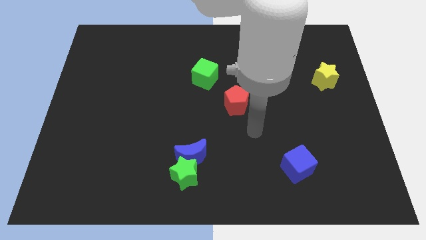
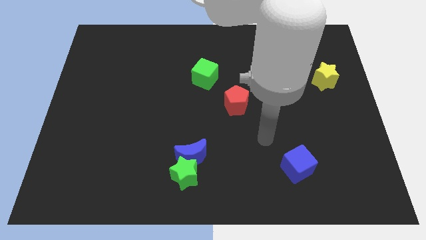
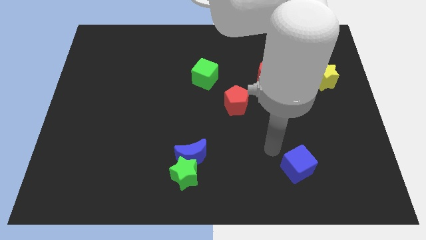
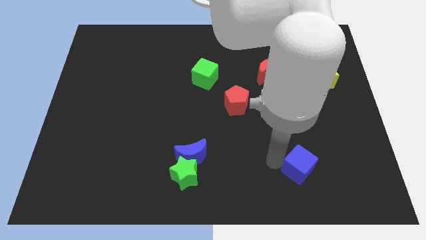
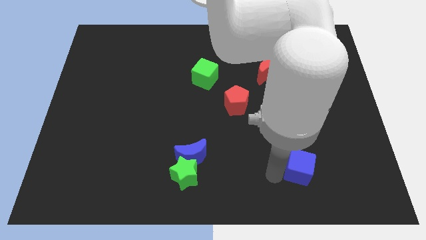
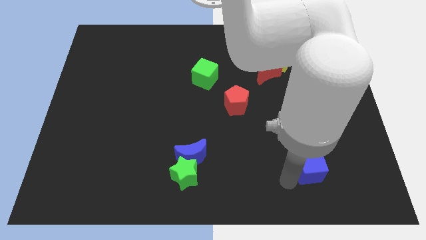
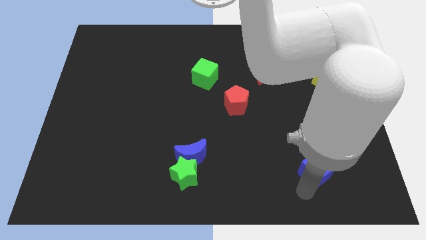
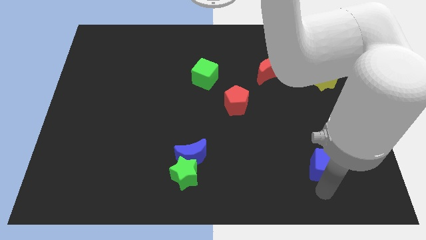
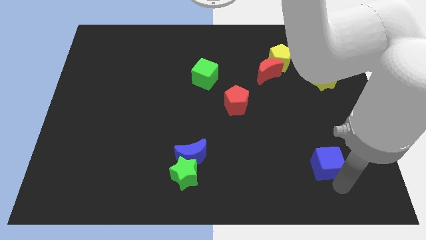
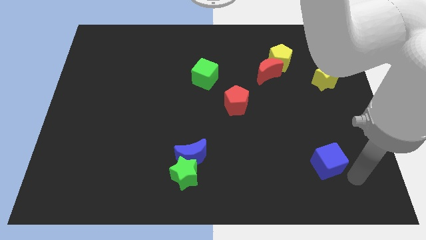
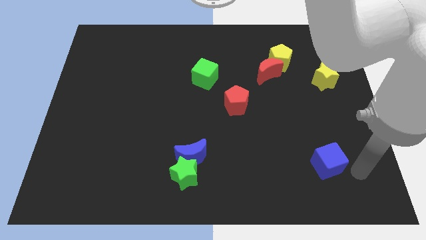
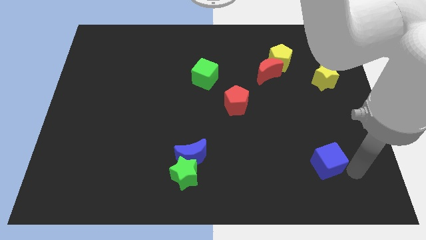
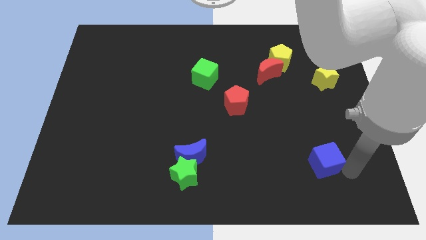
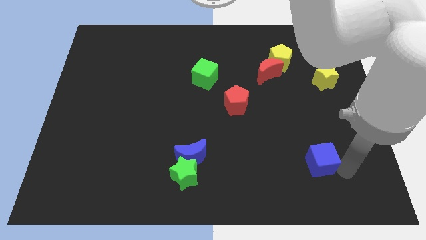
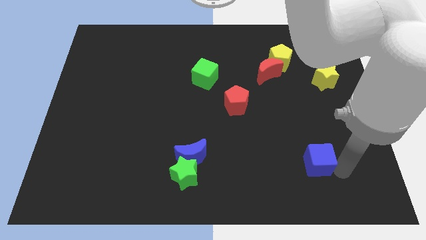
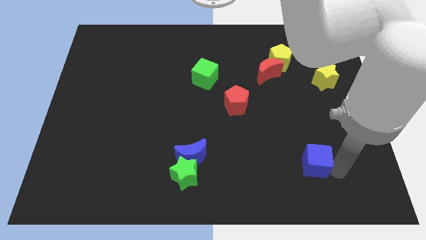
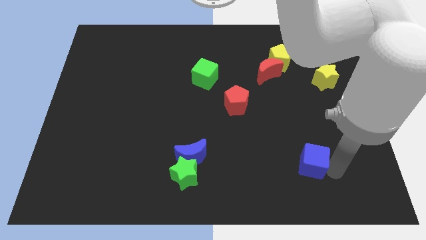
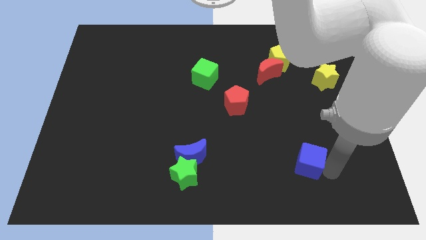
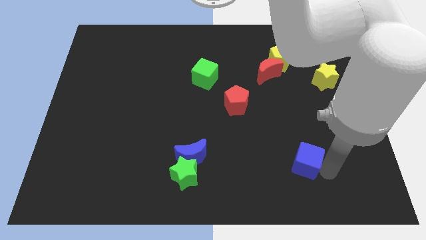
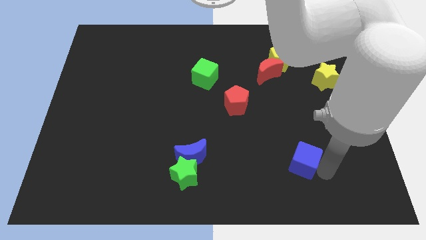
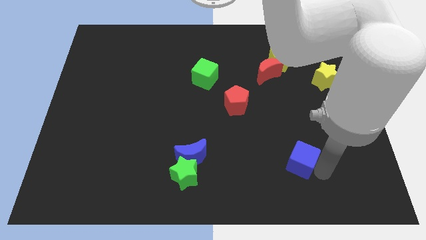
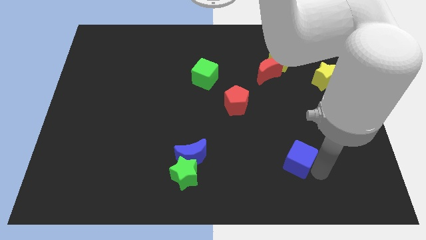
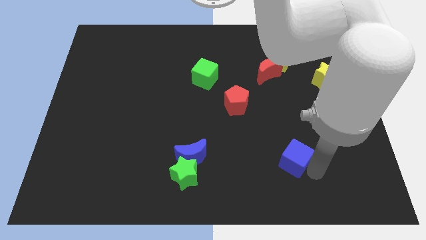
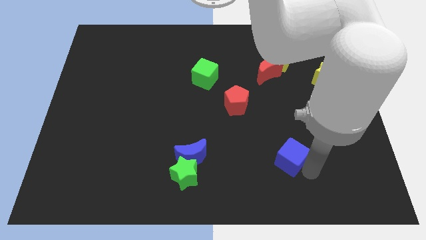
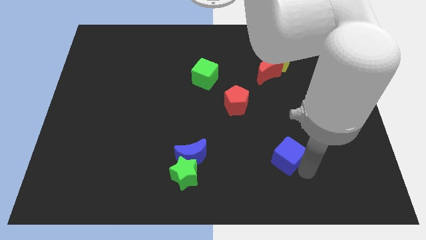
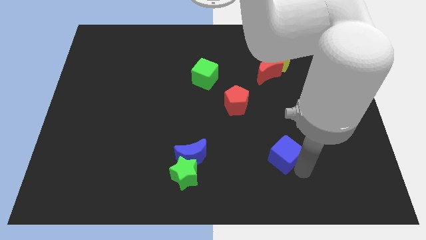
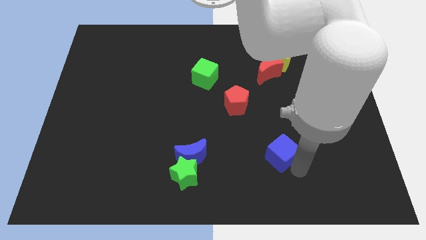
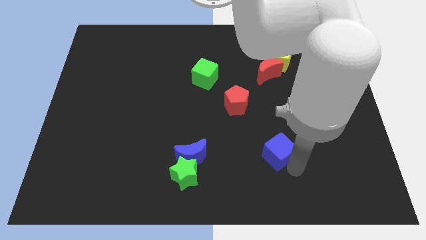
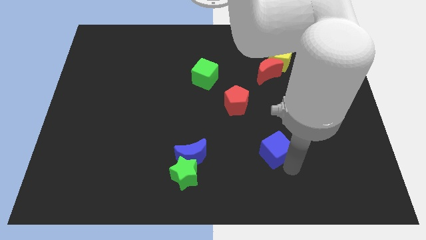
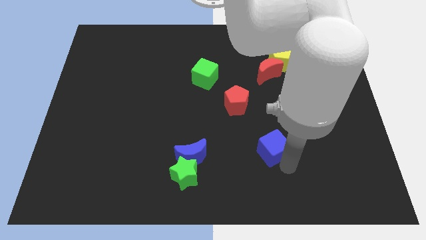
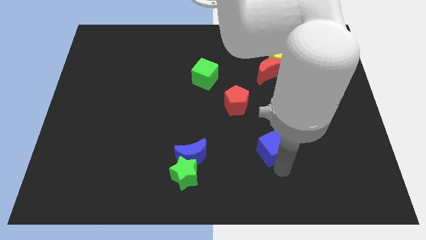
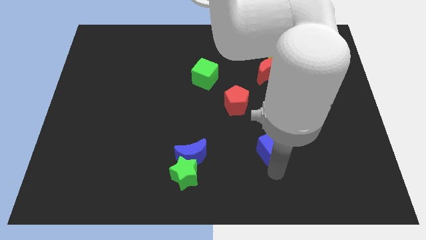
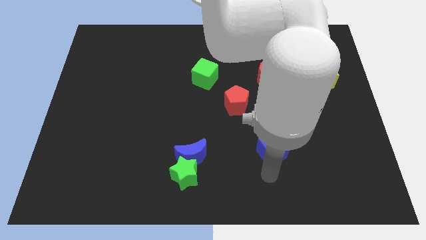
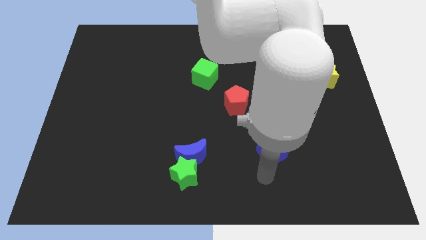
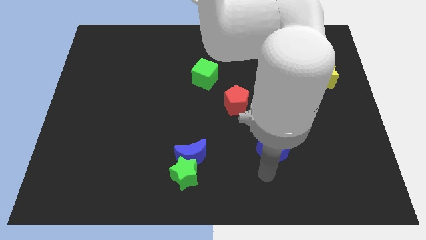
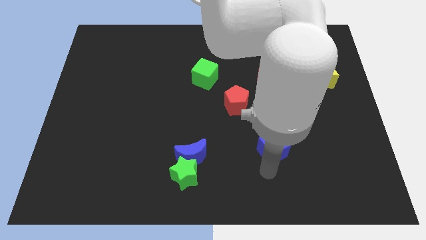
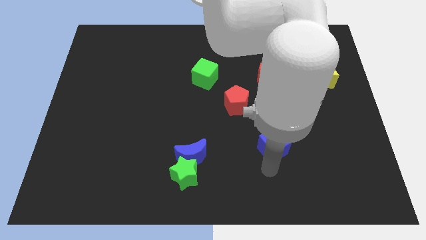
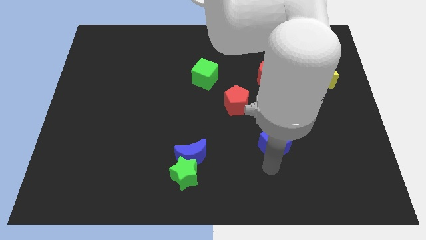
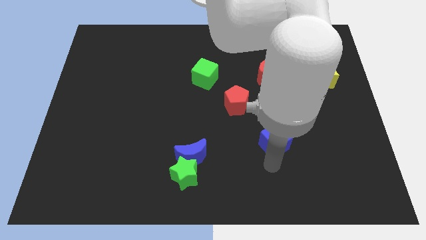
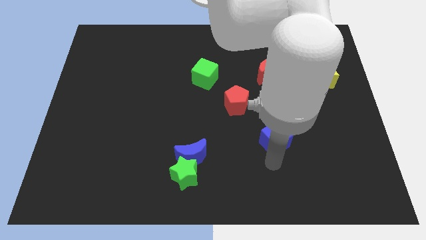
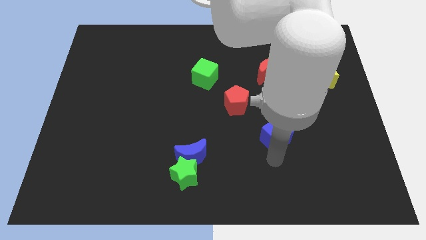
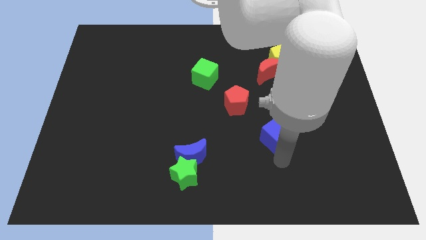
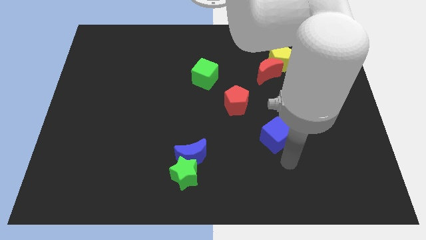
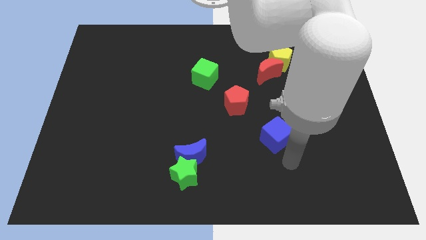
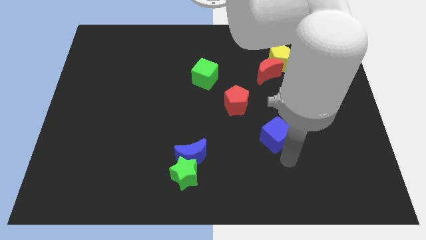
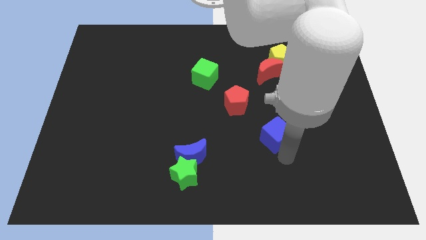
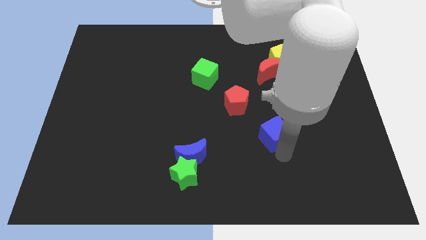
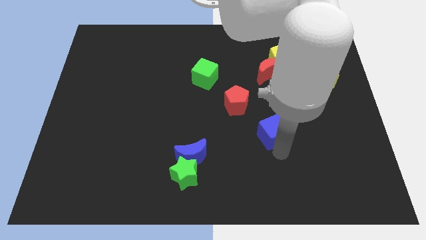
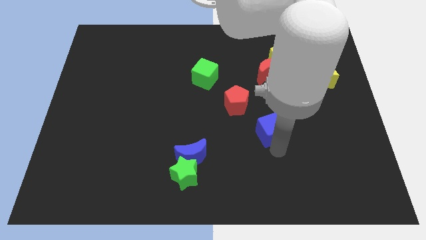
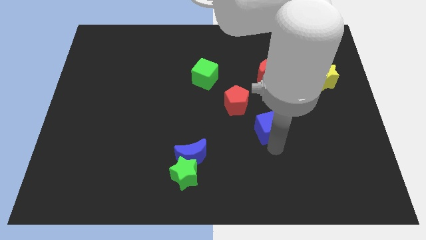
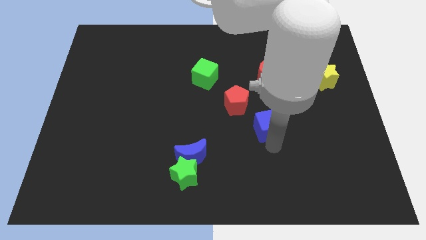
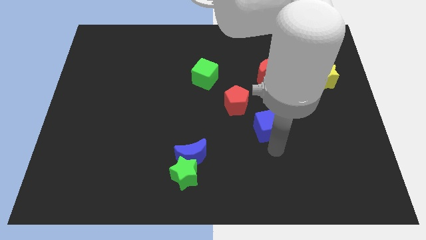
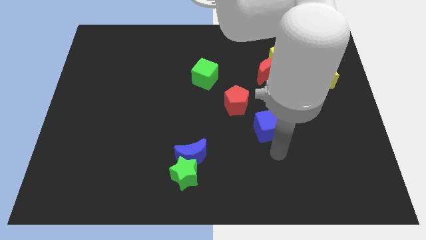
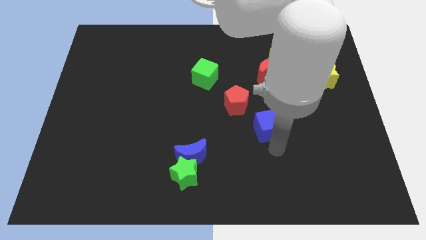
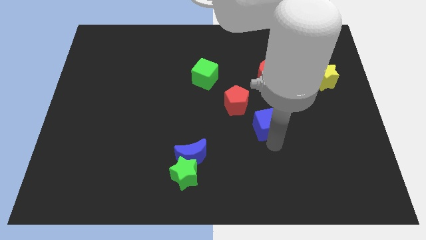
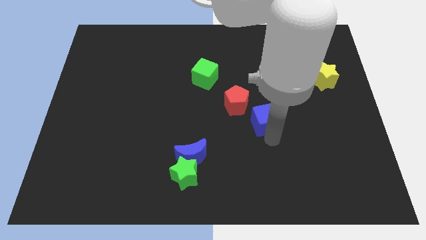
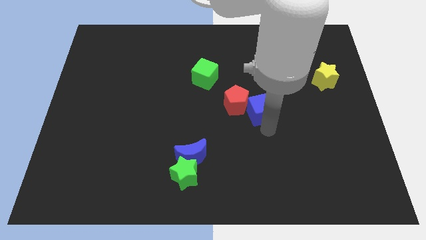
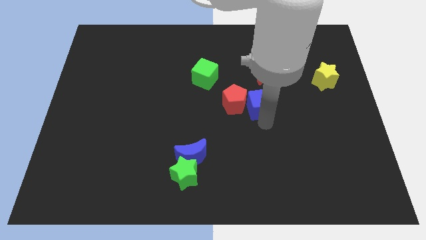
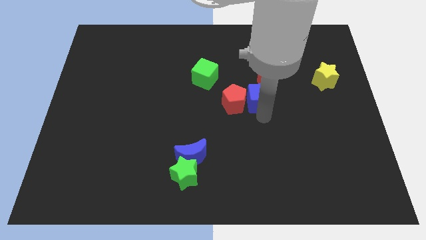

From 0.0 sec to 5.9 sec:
push the blue cube to the bottom left of the red moon

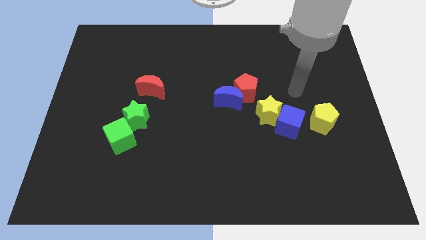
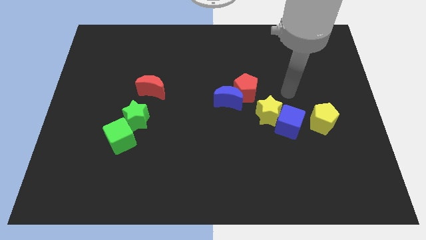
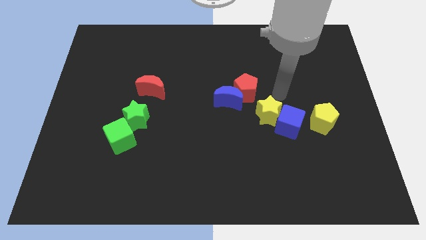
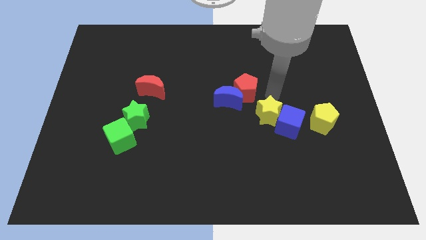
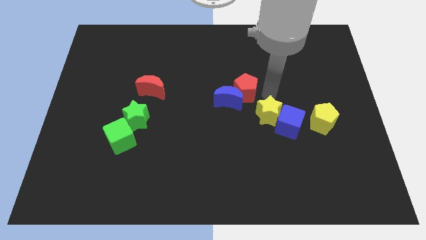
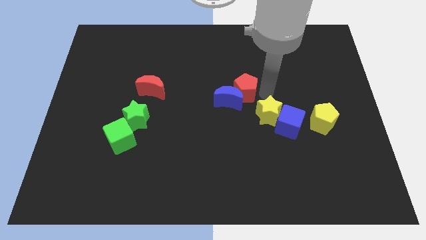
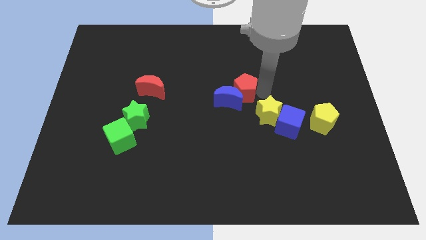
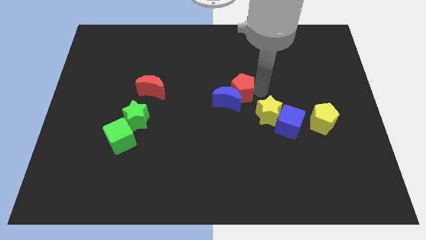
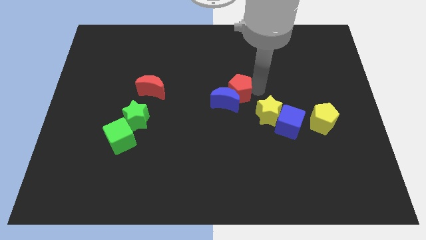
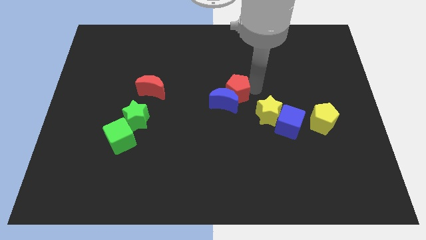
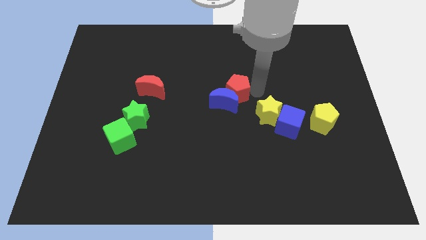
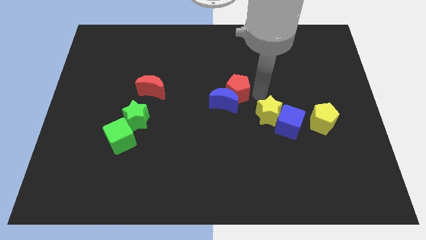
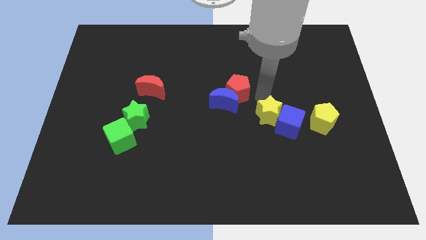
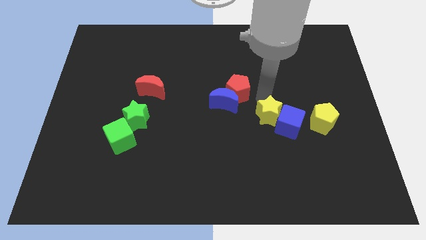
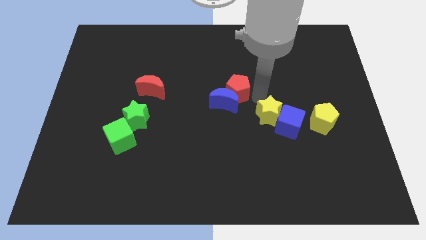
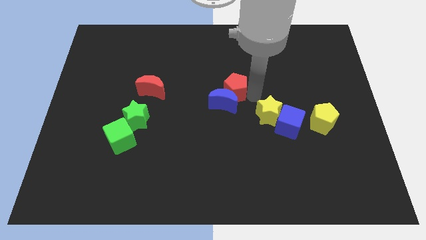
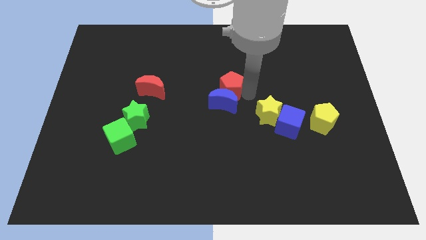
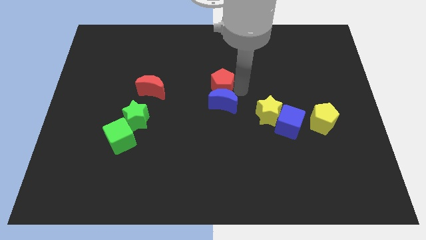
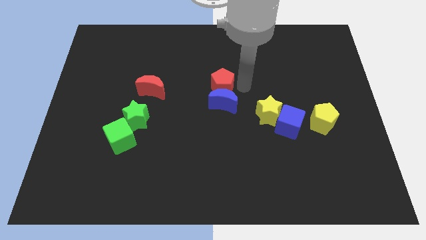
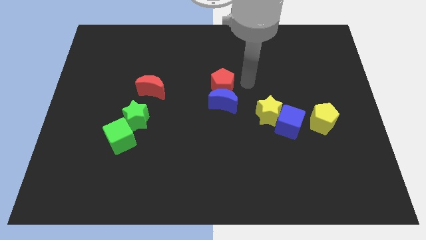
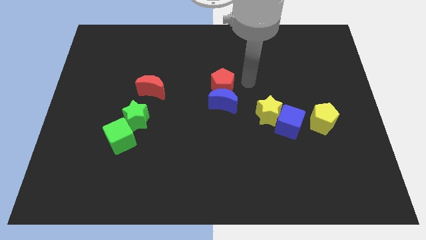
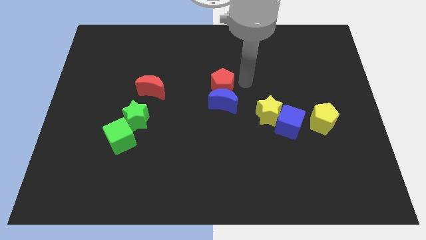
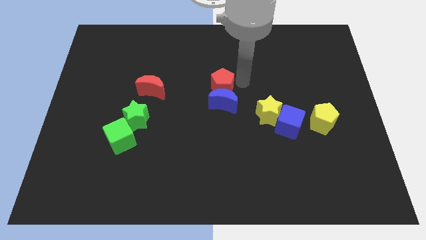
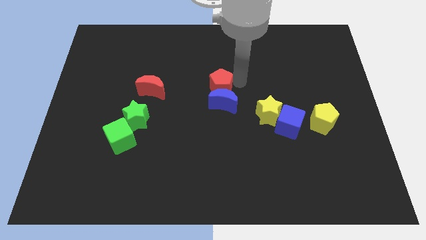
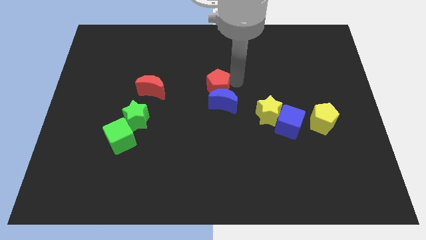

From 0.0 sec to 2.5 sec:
push the red pentagon to the right of the red moon
